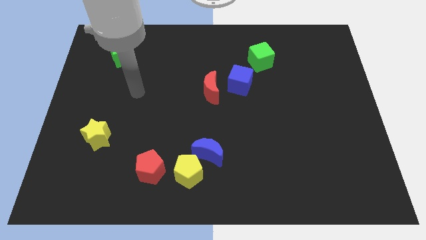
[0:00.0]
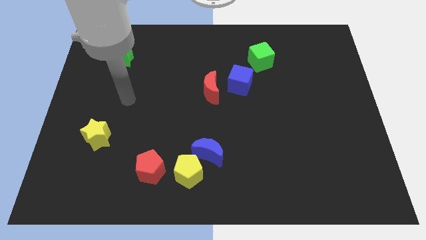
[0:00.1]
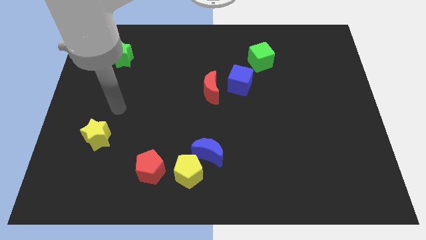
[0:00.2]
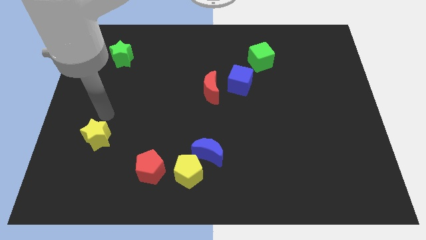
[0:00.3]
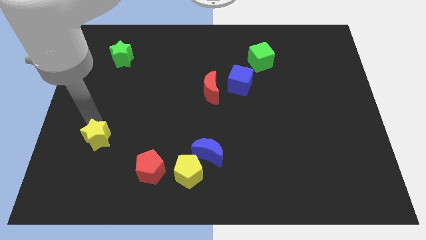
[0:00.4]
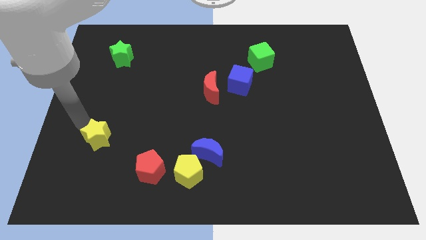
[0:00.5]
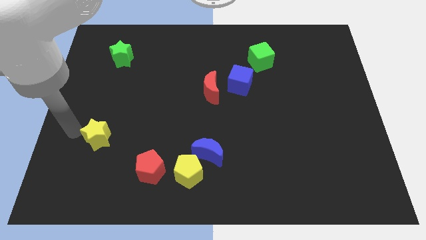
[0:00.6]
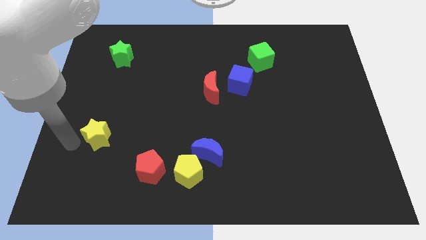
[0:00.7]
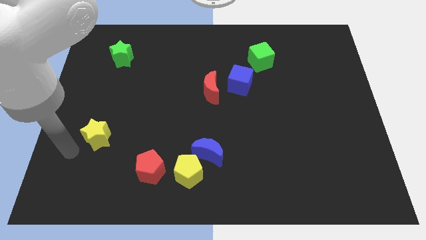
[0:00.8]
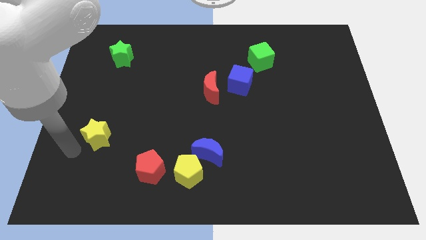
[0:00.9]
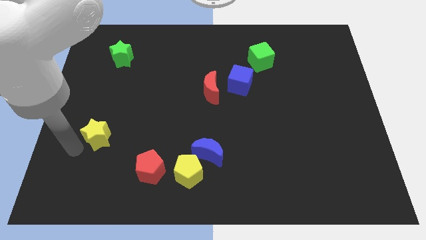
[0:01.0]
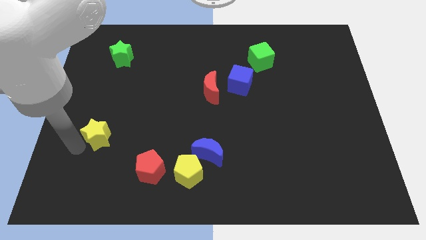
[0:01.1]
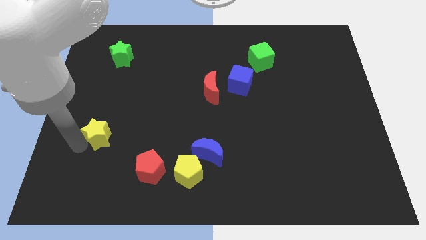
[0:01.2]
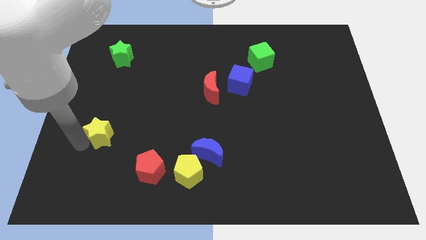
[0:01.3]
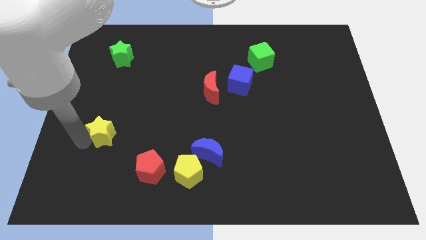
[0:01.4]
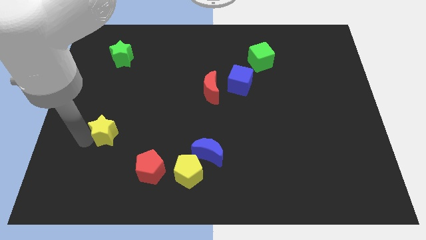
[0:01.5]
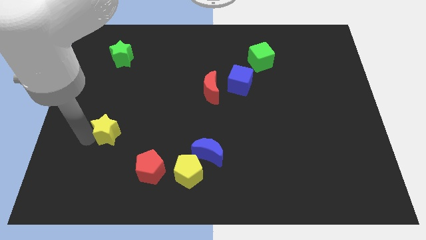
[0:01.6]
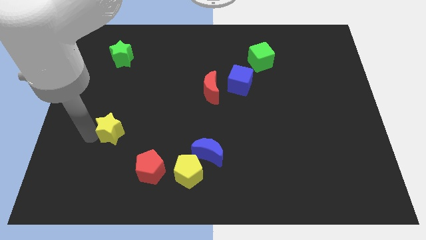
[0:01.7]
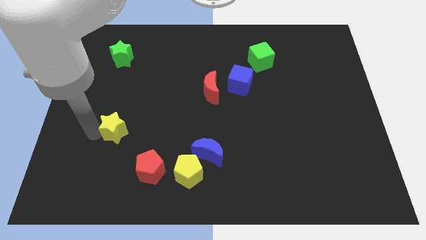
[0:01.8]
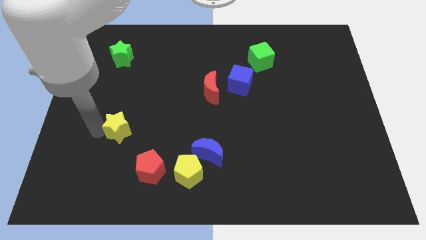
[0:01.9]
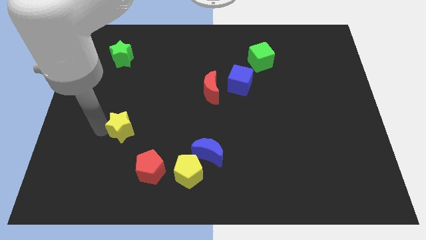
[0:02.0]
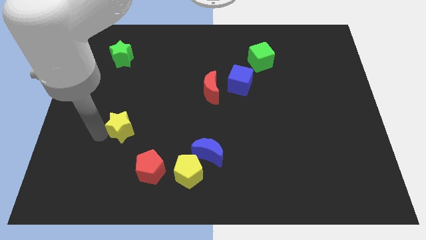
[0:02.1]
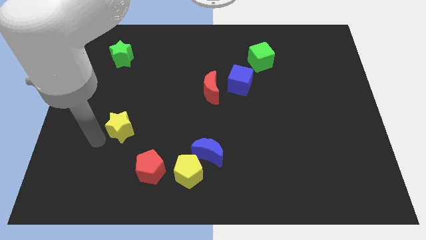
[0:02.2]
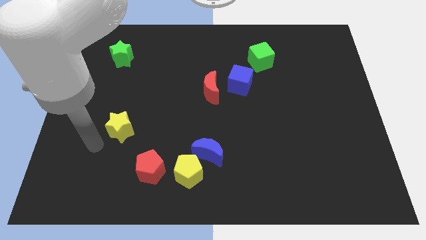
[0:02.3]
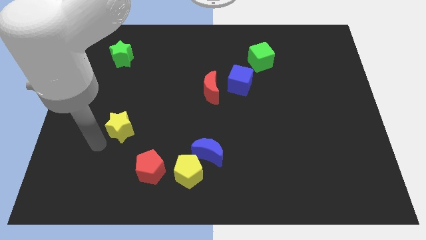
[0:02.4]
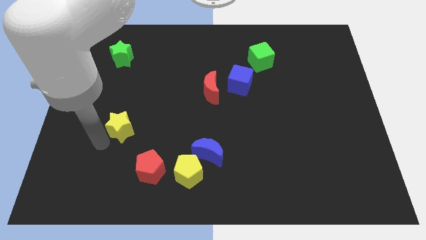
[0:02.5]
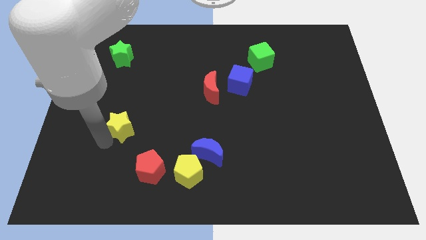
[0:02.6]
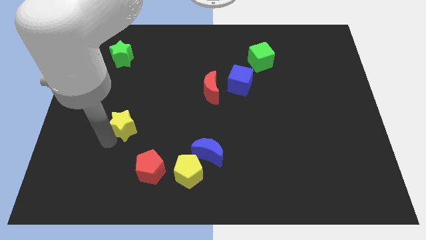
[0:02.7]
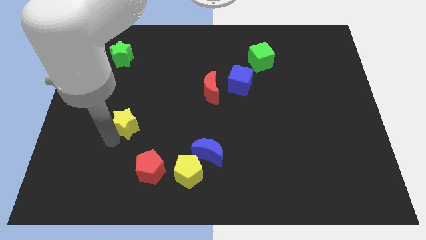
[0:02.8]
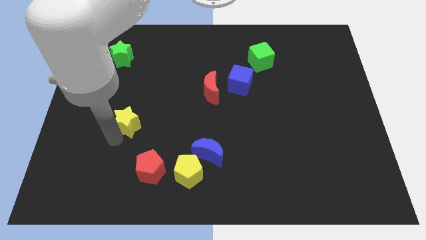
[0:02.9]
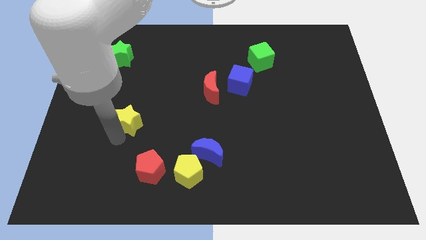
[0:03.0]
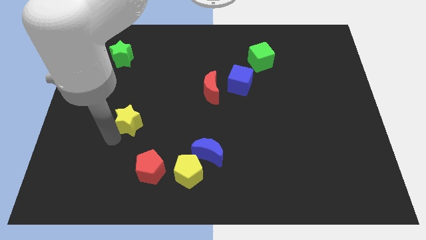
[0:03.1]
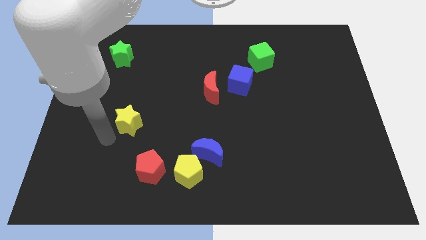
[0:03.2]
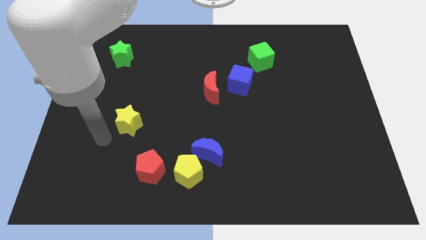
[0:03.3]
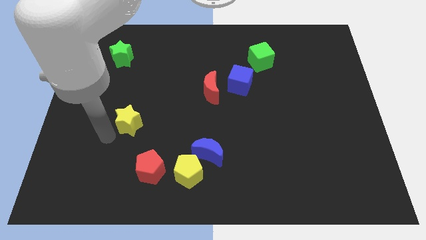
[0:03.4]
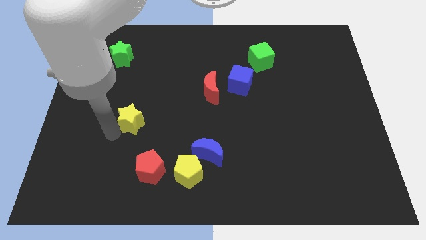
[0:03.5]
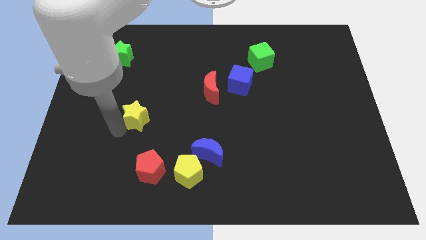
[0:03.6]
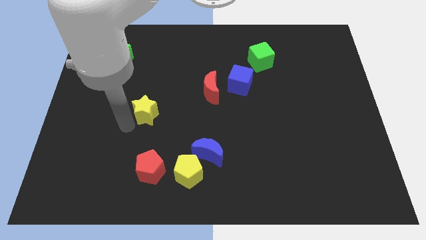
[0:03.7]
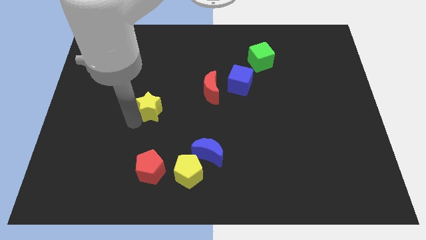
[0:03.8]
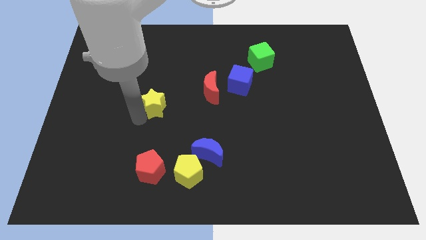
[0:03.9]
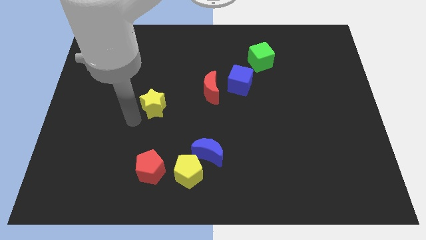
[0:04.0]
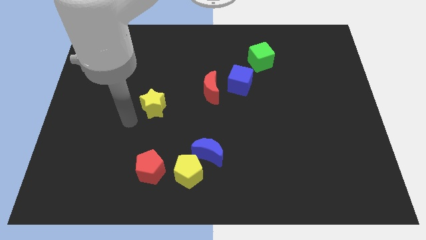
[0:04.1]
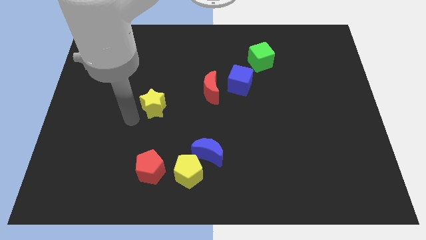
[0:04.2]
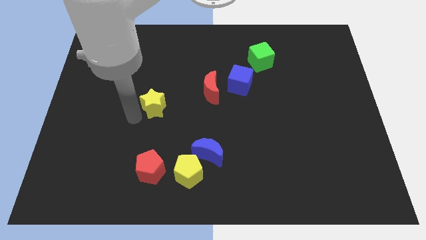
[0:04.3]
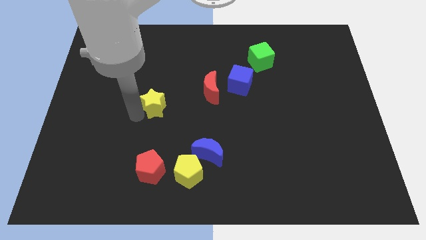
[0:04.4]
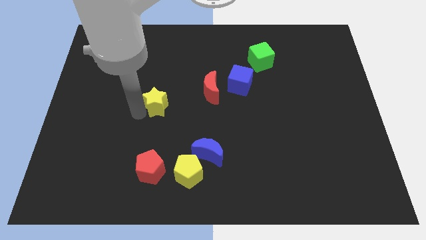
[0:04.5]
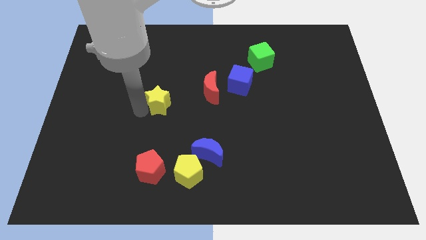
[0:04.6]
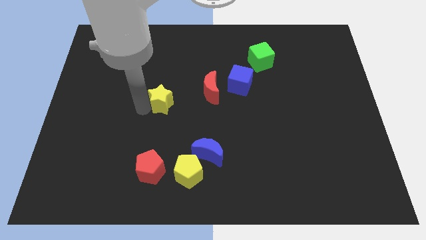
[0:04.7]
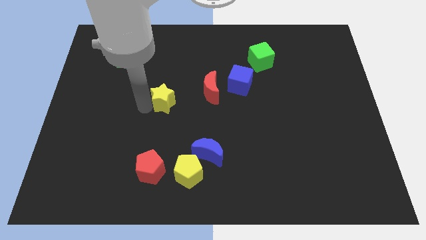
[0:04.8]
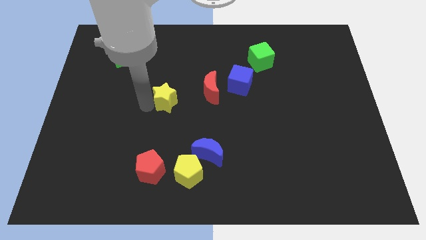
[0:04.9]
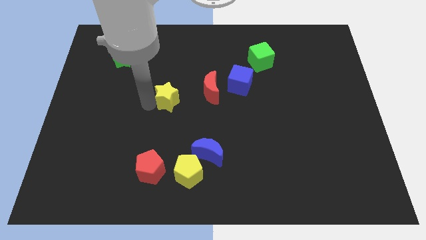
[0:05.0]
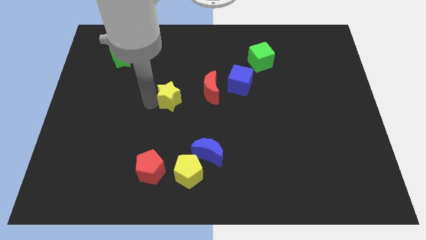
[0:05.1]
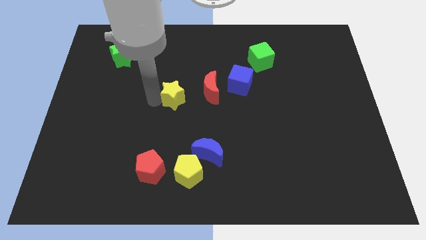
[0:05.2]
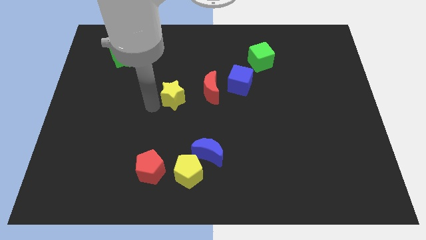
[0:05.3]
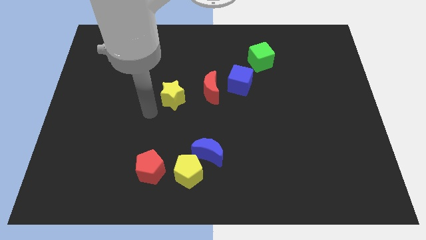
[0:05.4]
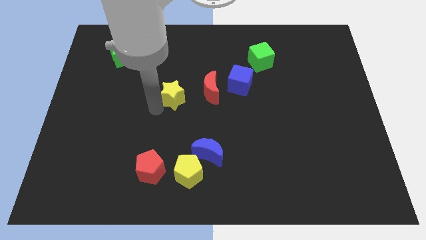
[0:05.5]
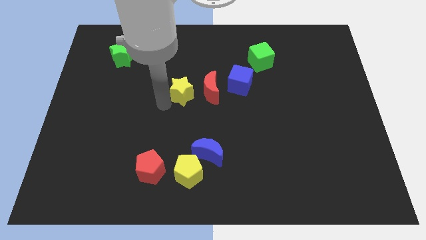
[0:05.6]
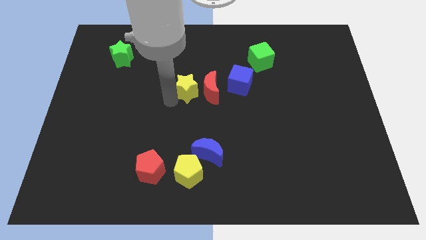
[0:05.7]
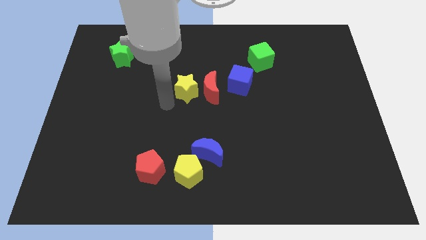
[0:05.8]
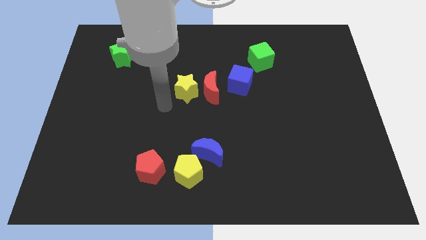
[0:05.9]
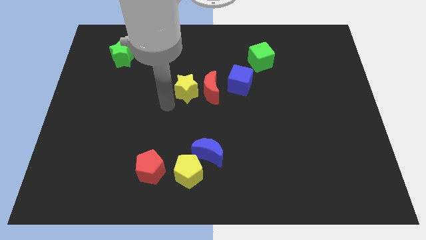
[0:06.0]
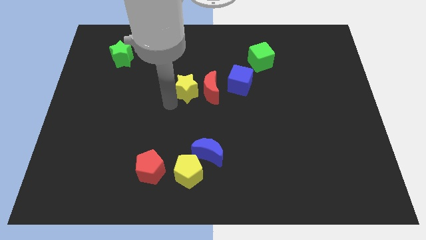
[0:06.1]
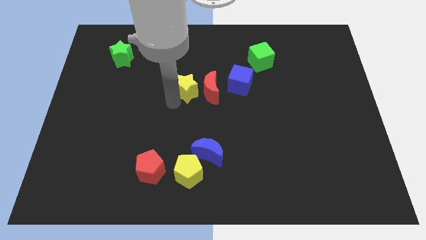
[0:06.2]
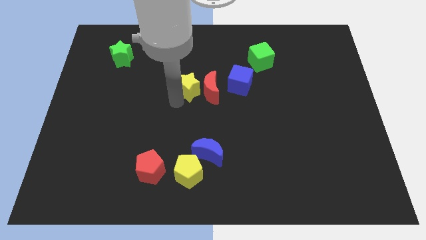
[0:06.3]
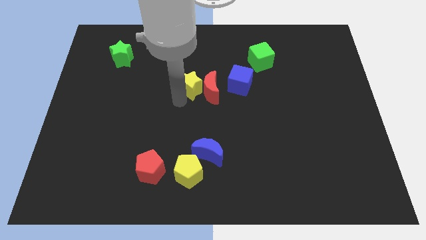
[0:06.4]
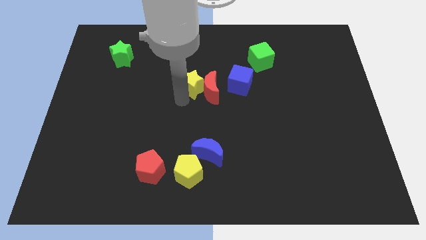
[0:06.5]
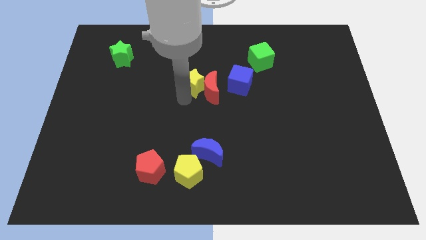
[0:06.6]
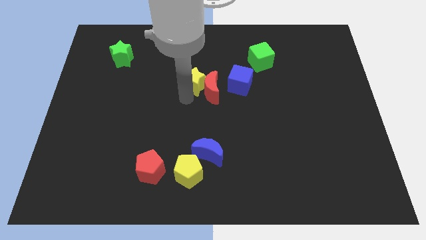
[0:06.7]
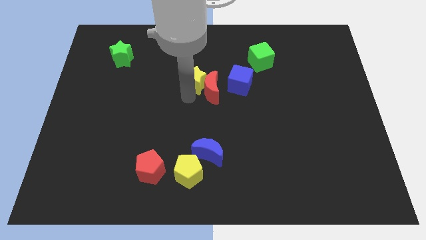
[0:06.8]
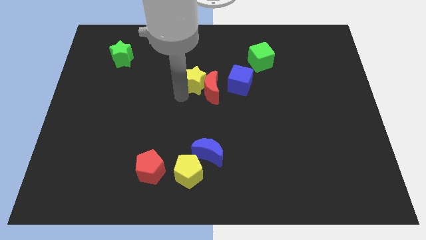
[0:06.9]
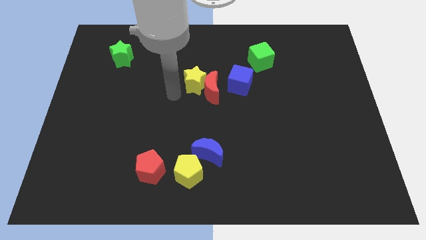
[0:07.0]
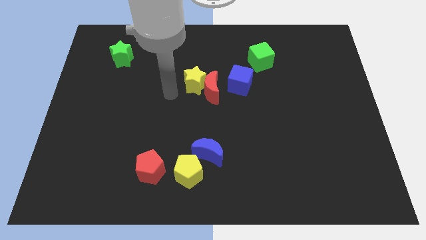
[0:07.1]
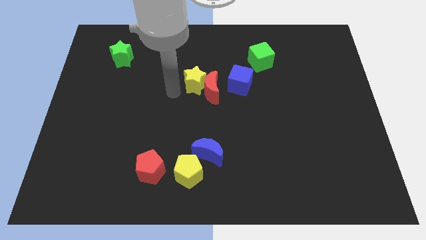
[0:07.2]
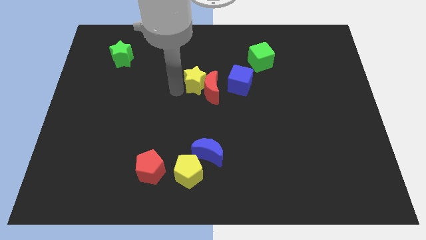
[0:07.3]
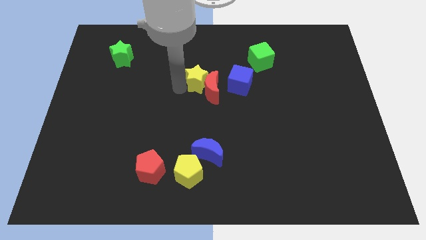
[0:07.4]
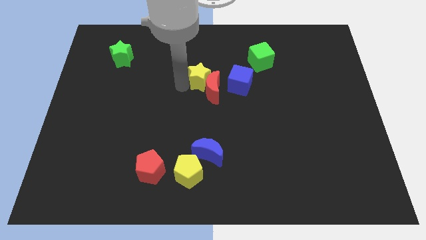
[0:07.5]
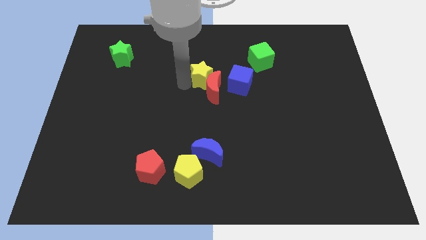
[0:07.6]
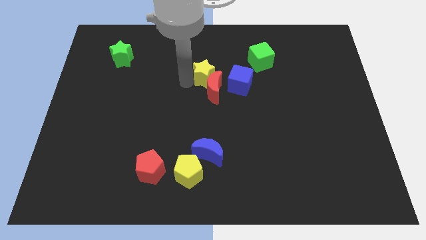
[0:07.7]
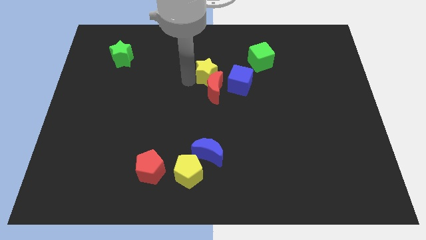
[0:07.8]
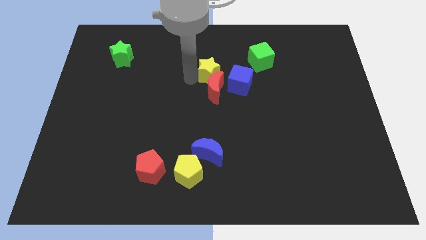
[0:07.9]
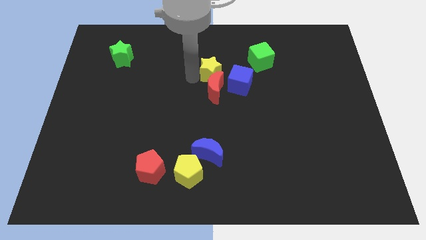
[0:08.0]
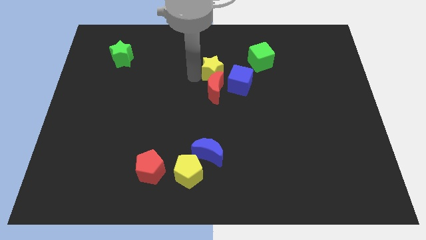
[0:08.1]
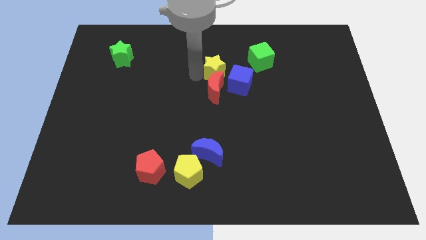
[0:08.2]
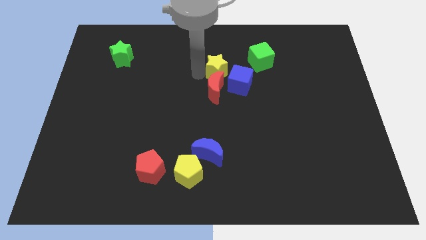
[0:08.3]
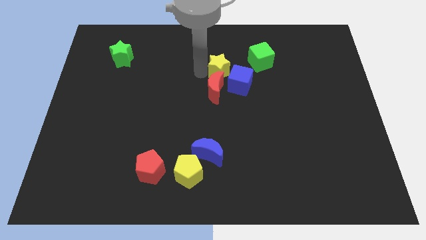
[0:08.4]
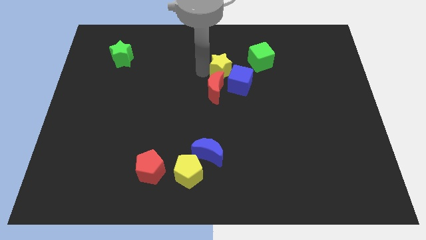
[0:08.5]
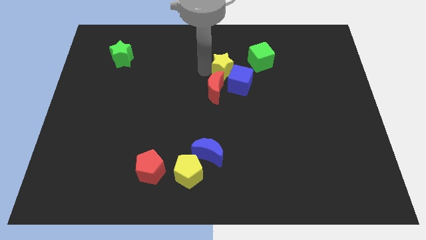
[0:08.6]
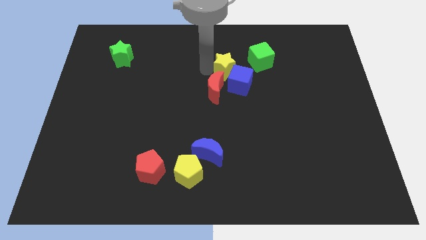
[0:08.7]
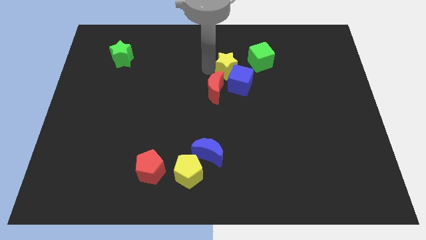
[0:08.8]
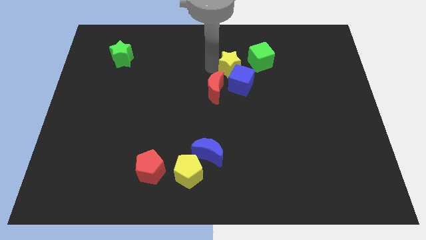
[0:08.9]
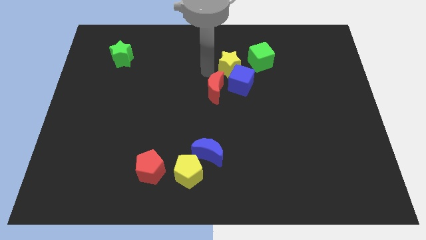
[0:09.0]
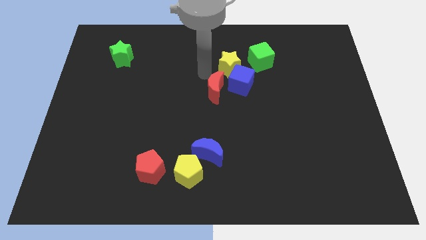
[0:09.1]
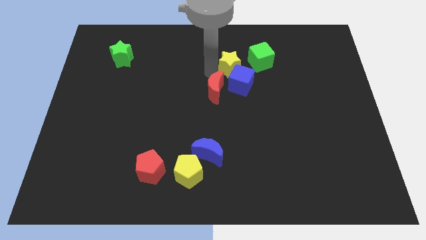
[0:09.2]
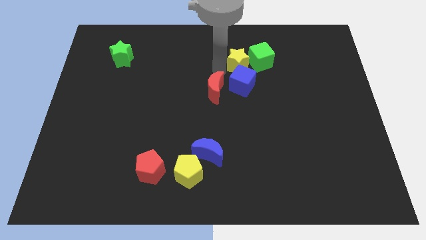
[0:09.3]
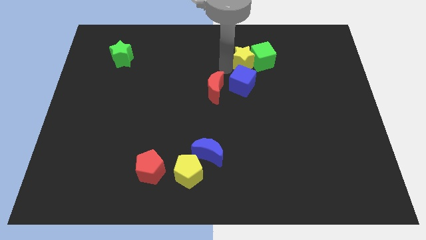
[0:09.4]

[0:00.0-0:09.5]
slide the yellow star towards the green cube
